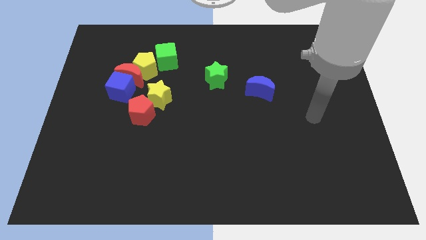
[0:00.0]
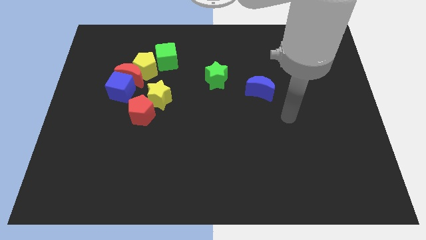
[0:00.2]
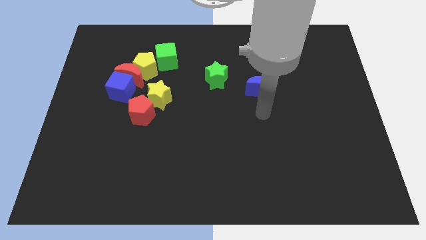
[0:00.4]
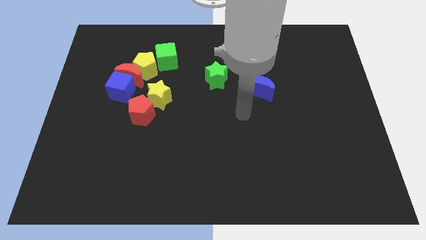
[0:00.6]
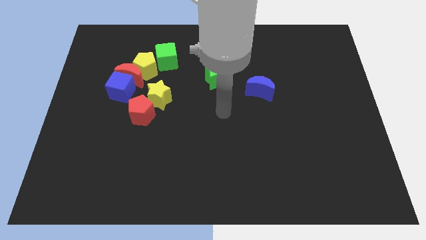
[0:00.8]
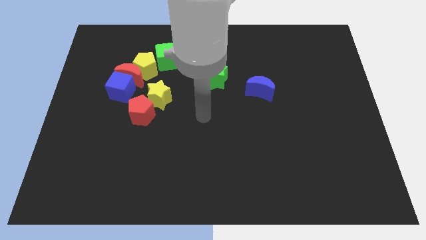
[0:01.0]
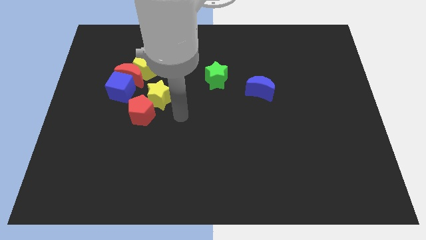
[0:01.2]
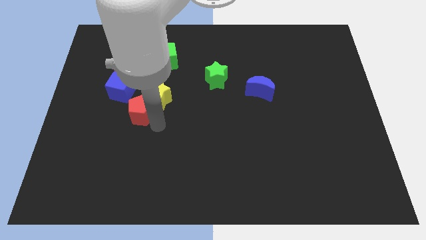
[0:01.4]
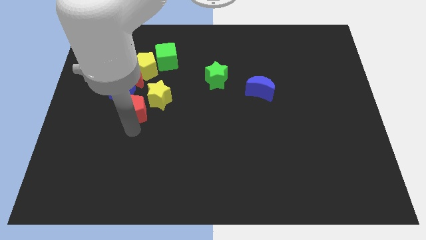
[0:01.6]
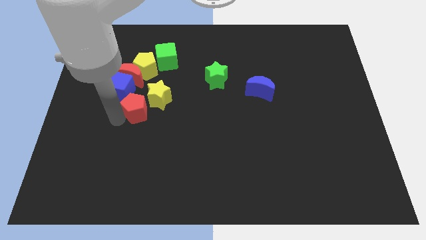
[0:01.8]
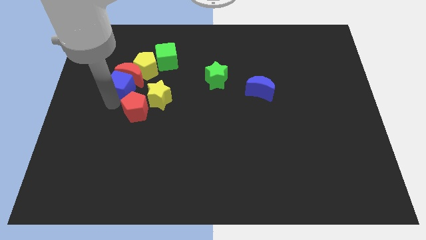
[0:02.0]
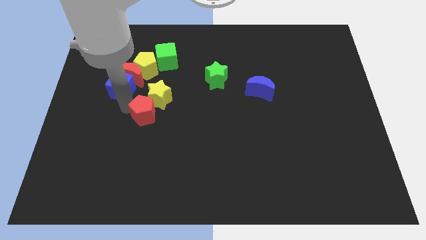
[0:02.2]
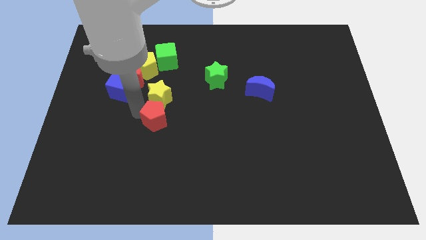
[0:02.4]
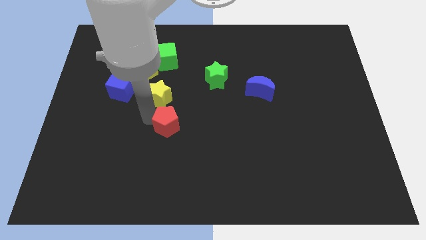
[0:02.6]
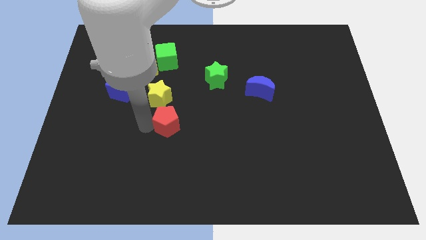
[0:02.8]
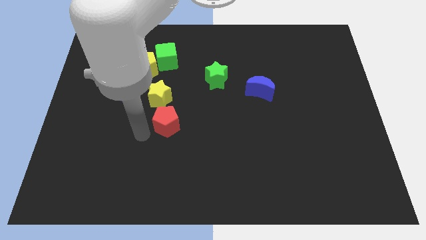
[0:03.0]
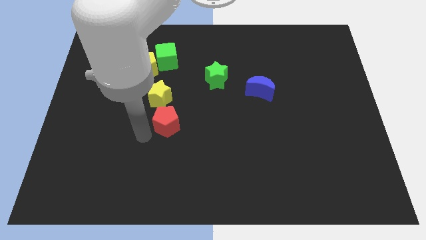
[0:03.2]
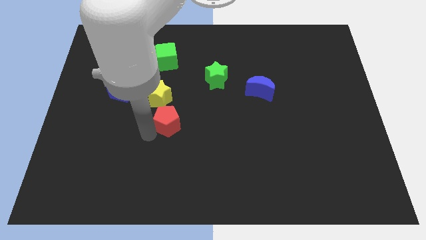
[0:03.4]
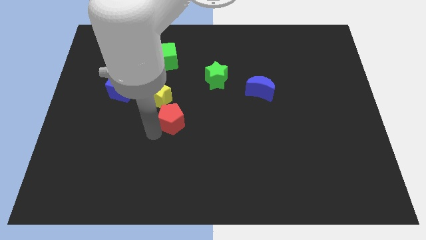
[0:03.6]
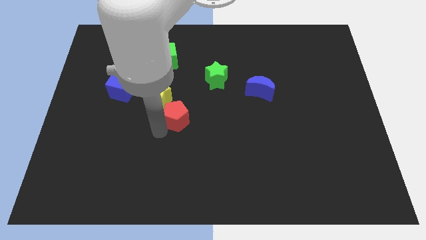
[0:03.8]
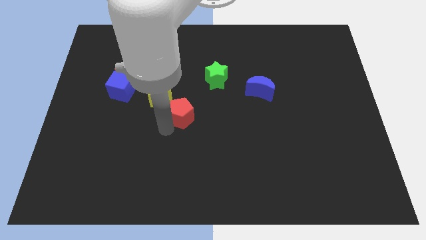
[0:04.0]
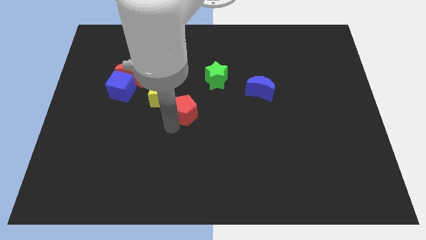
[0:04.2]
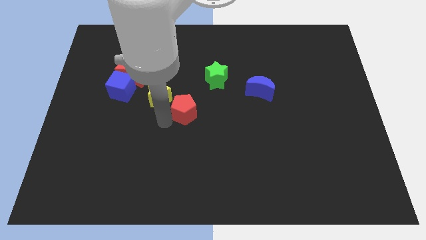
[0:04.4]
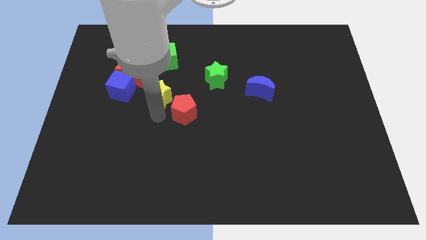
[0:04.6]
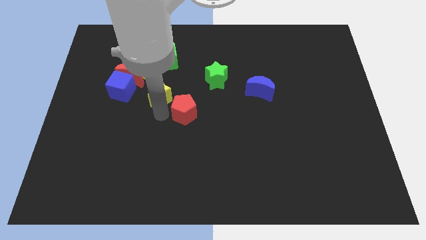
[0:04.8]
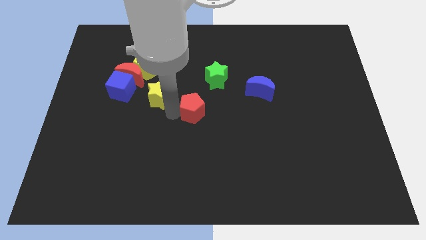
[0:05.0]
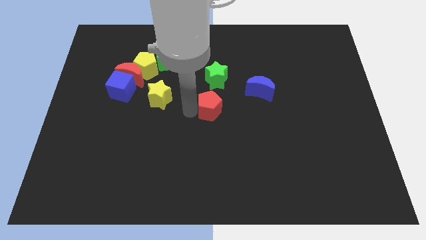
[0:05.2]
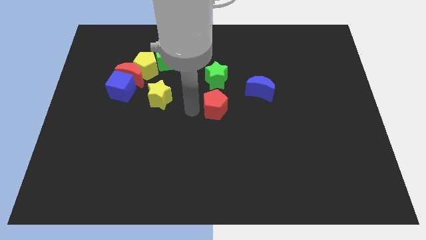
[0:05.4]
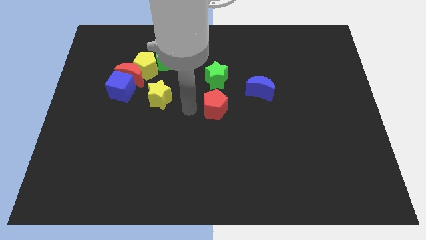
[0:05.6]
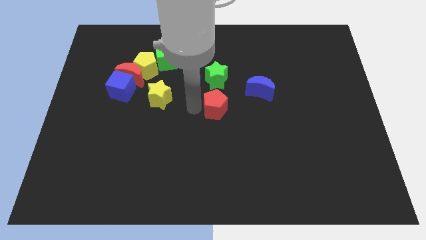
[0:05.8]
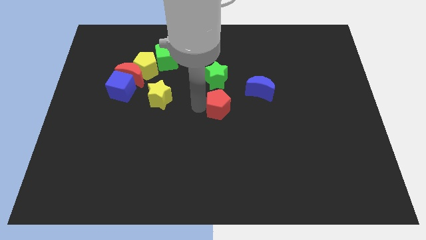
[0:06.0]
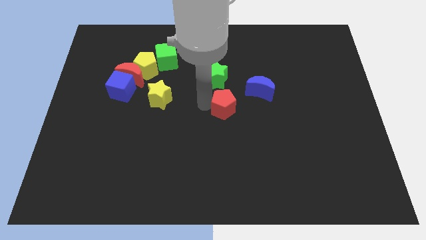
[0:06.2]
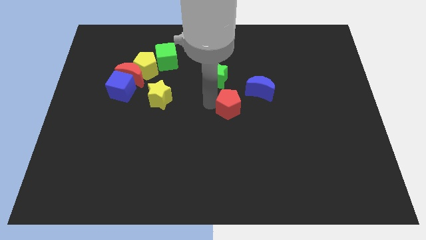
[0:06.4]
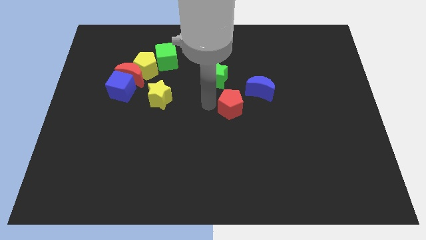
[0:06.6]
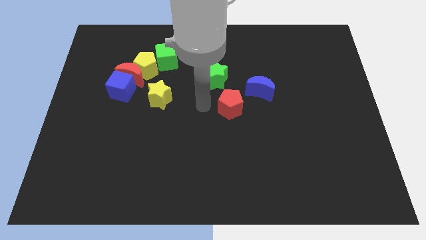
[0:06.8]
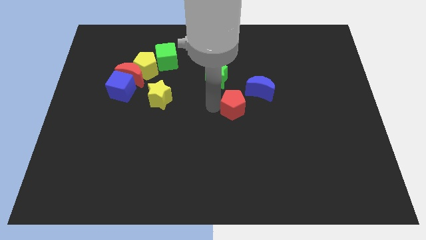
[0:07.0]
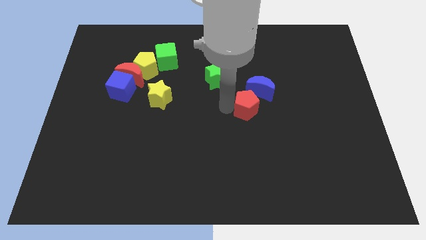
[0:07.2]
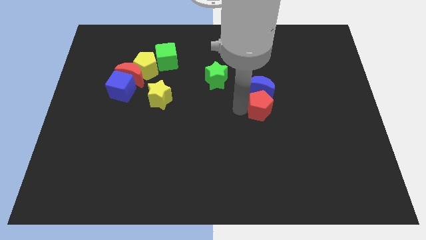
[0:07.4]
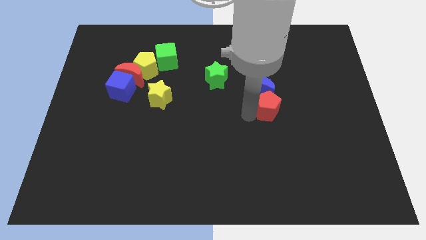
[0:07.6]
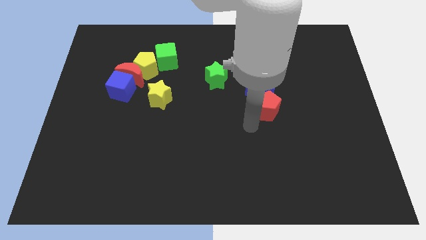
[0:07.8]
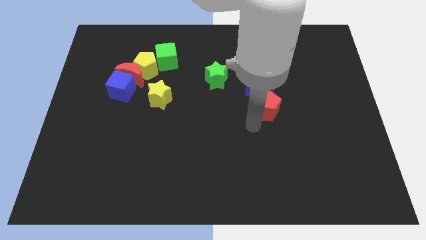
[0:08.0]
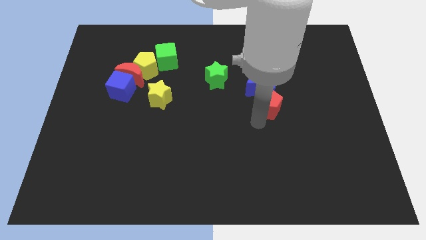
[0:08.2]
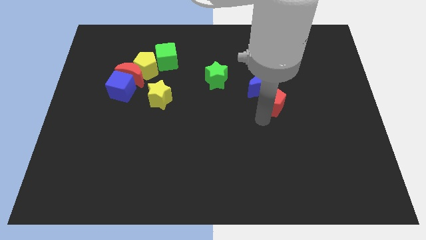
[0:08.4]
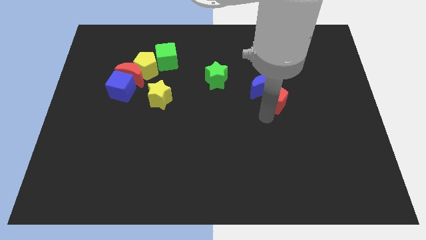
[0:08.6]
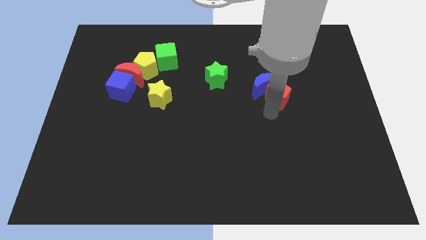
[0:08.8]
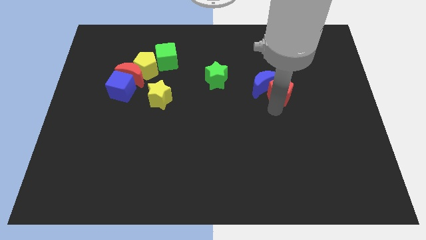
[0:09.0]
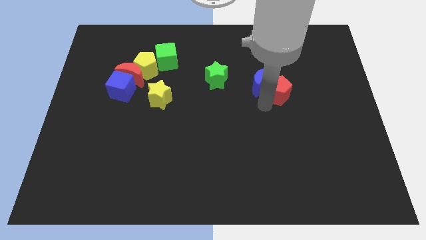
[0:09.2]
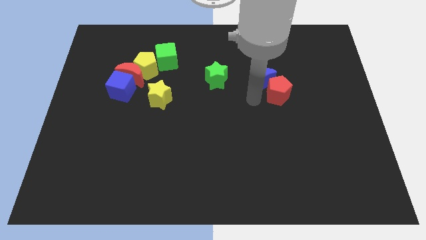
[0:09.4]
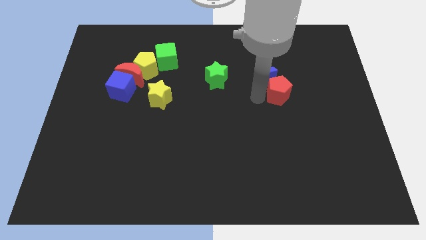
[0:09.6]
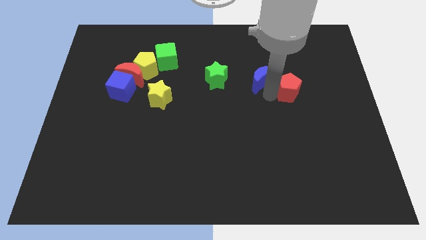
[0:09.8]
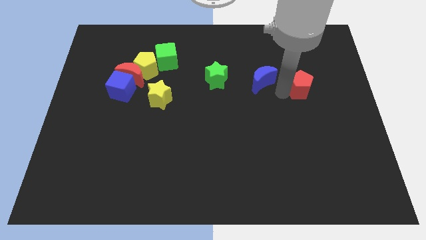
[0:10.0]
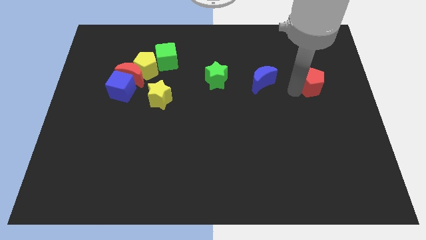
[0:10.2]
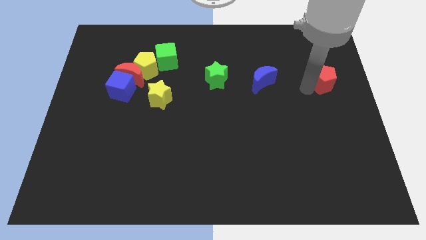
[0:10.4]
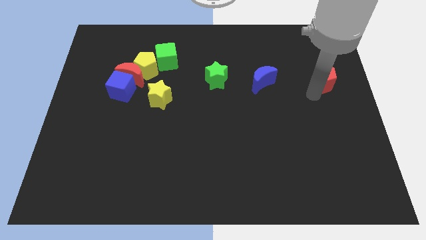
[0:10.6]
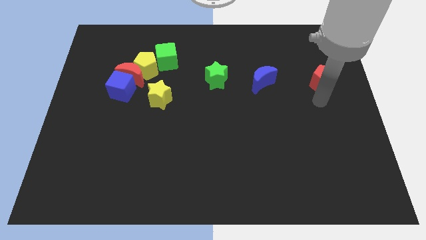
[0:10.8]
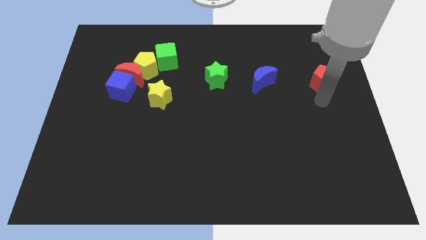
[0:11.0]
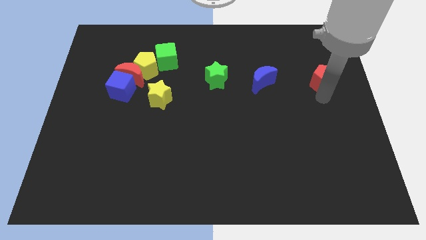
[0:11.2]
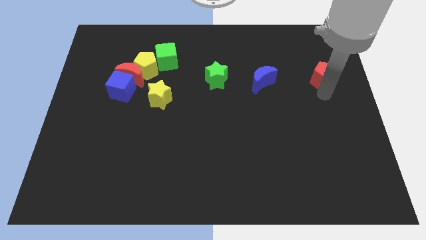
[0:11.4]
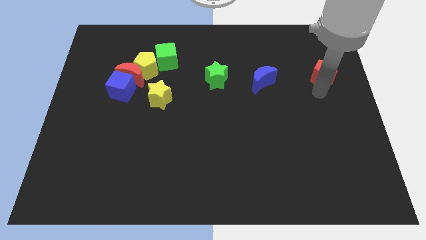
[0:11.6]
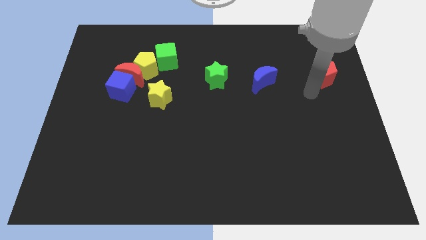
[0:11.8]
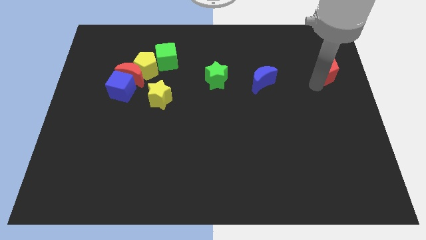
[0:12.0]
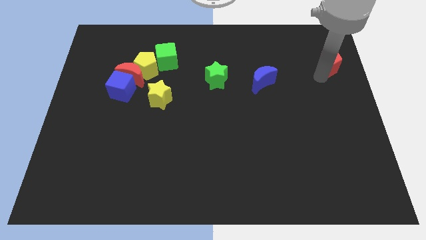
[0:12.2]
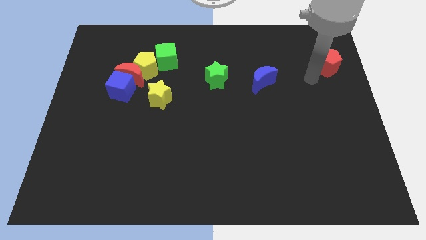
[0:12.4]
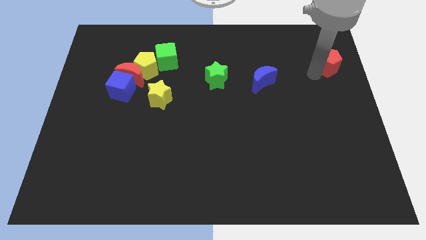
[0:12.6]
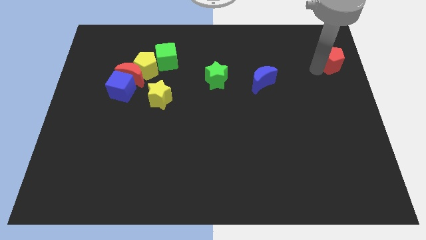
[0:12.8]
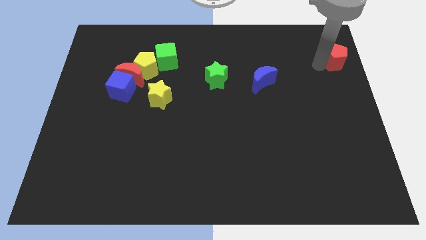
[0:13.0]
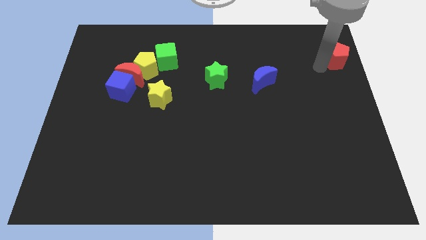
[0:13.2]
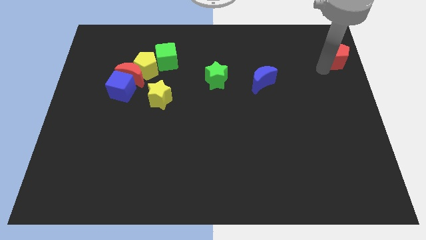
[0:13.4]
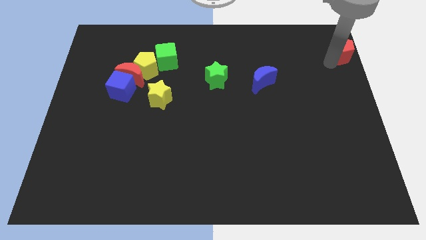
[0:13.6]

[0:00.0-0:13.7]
slide the red pentagon to the top right of the board

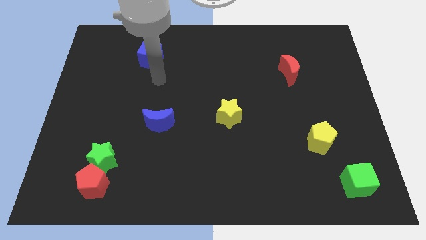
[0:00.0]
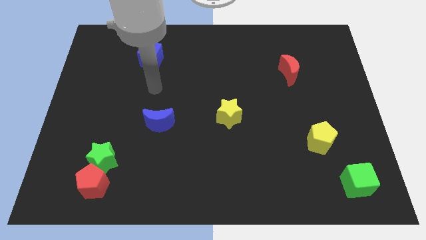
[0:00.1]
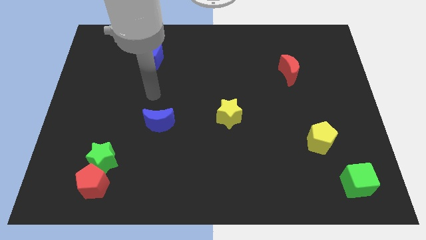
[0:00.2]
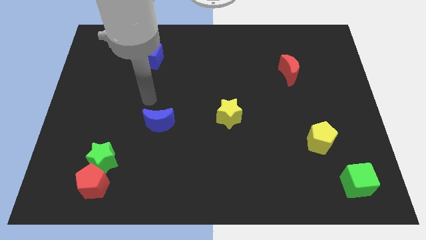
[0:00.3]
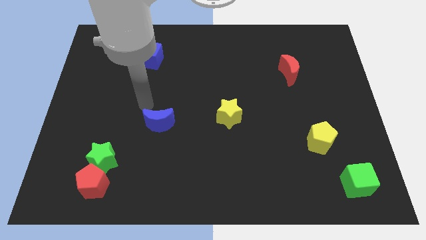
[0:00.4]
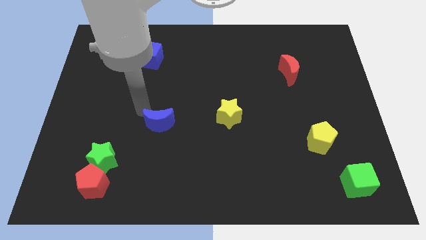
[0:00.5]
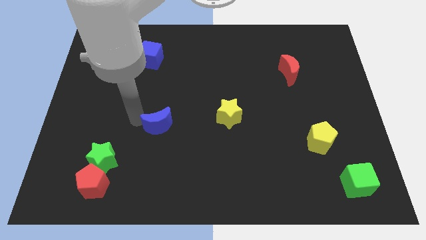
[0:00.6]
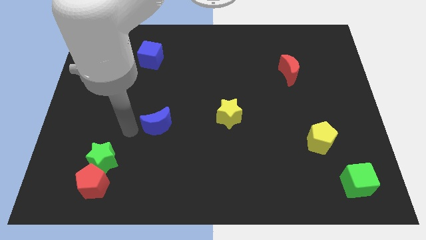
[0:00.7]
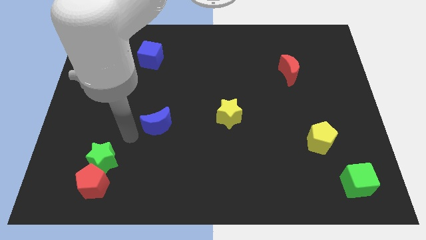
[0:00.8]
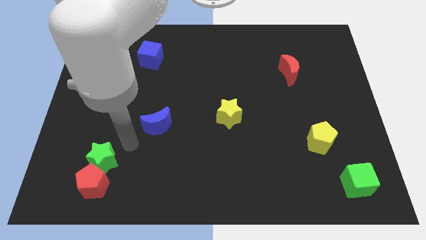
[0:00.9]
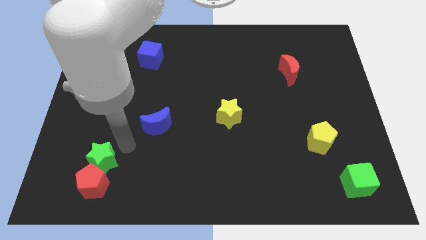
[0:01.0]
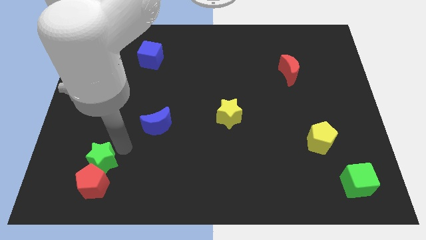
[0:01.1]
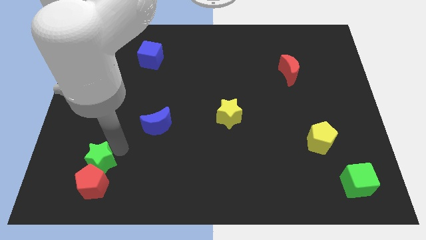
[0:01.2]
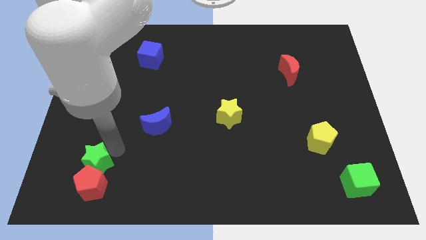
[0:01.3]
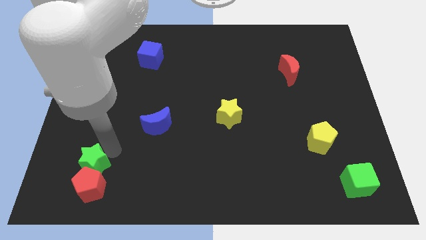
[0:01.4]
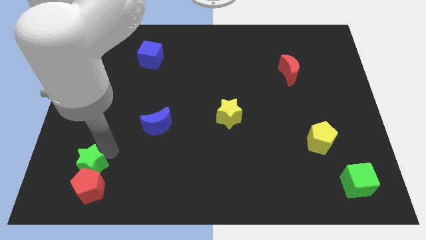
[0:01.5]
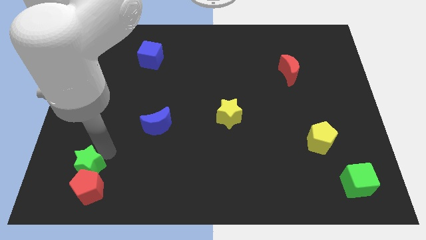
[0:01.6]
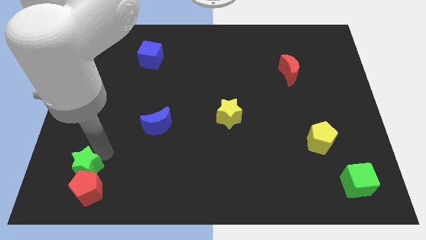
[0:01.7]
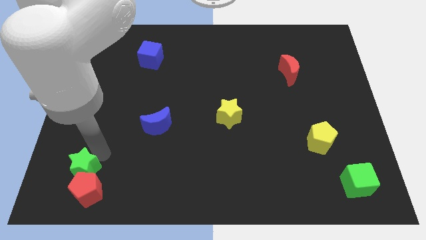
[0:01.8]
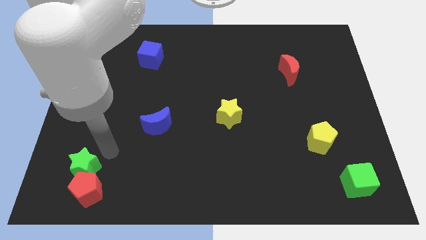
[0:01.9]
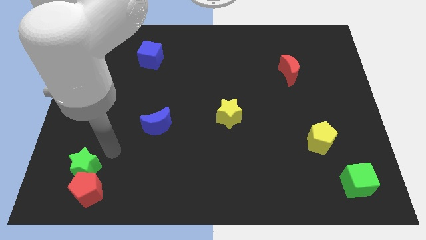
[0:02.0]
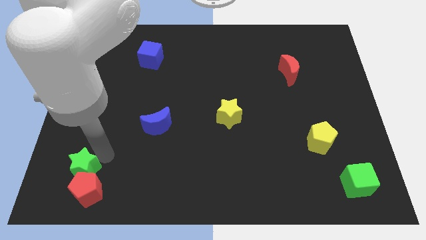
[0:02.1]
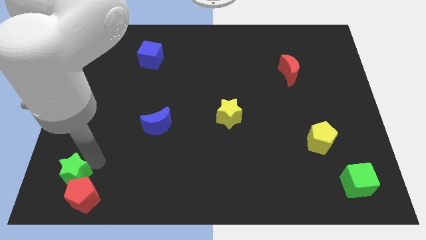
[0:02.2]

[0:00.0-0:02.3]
push the green star to the lower left corner
